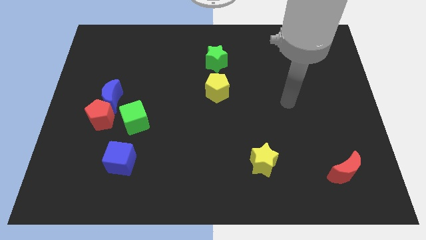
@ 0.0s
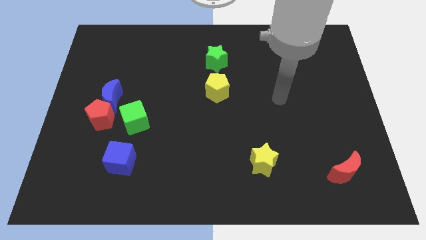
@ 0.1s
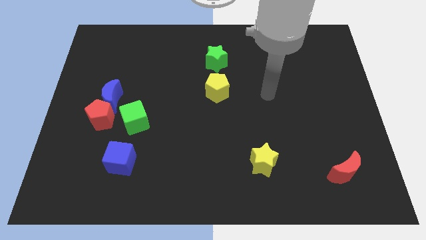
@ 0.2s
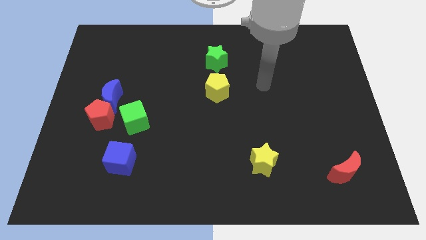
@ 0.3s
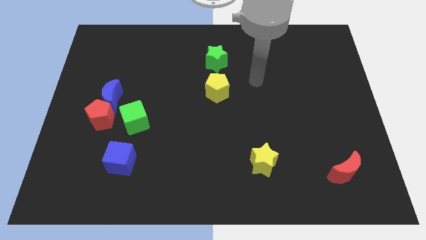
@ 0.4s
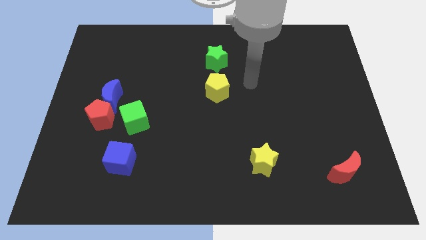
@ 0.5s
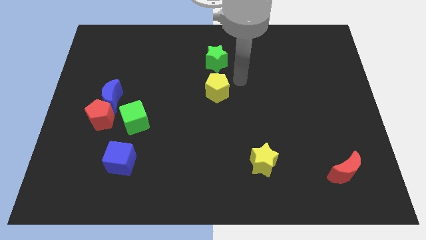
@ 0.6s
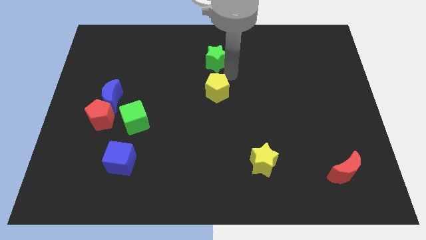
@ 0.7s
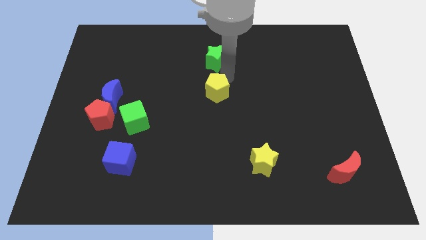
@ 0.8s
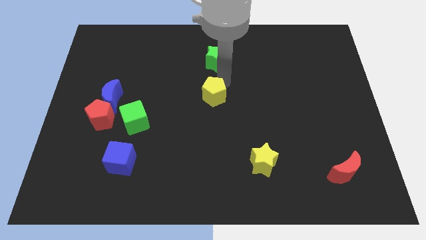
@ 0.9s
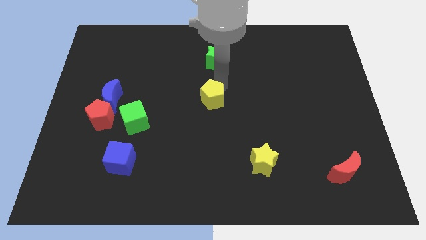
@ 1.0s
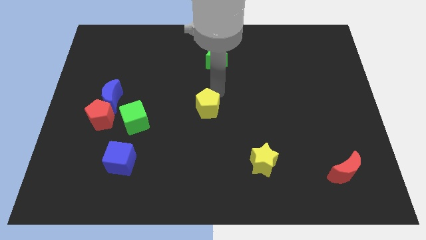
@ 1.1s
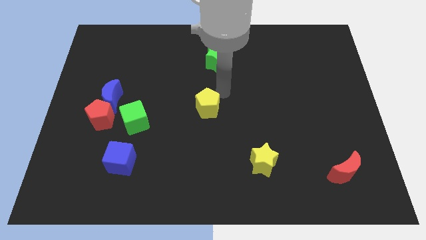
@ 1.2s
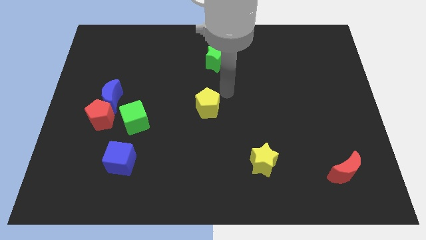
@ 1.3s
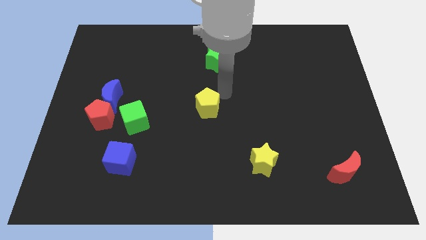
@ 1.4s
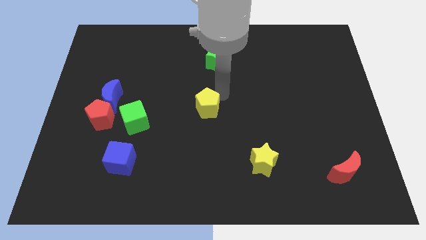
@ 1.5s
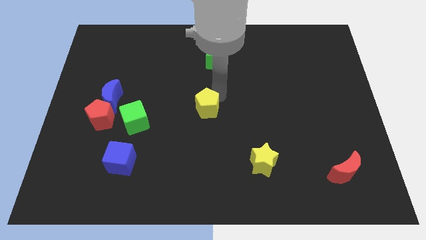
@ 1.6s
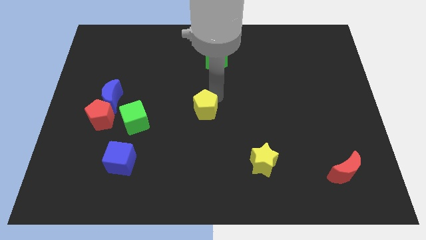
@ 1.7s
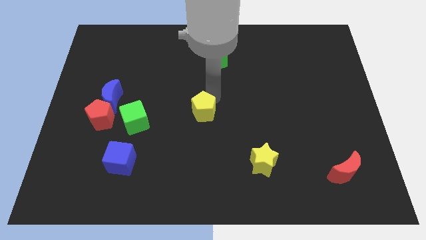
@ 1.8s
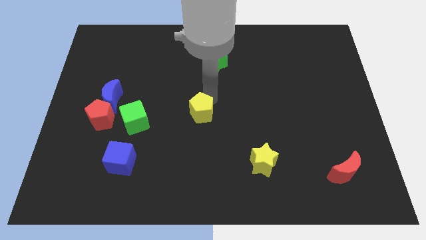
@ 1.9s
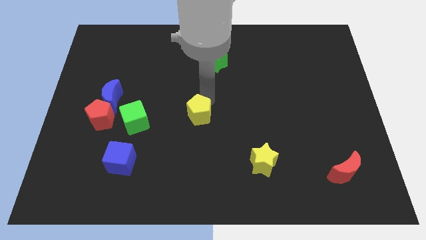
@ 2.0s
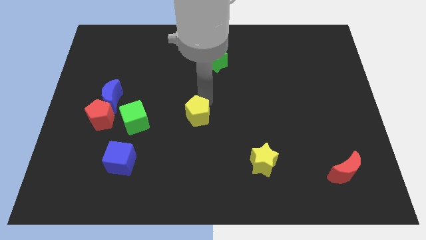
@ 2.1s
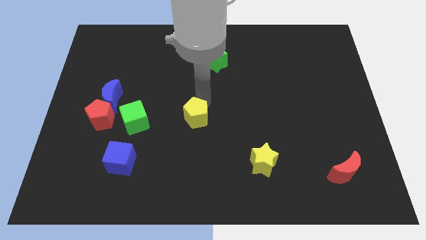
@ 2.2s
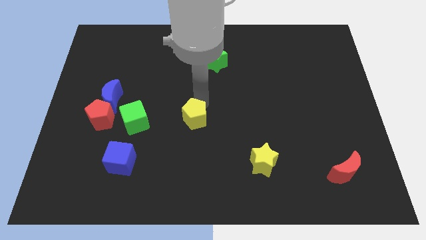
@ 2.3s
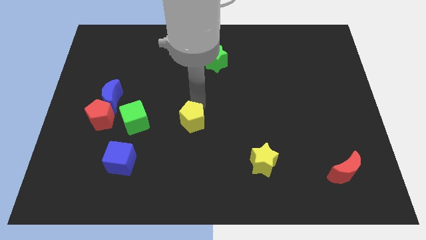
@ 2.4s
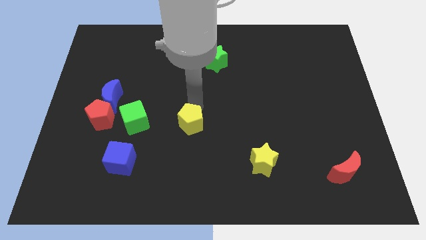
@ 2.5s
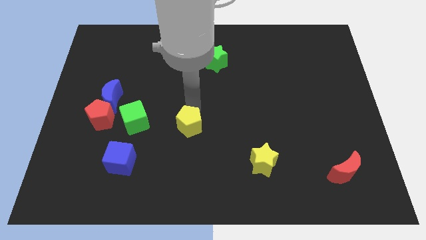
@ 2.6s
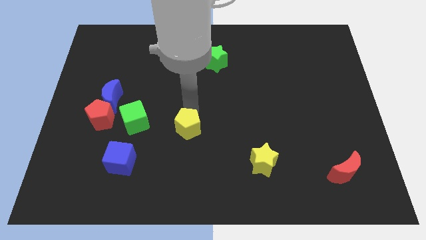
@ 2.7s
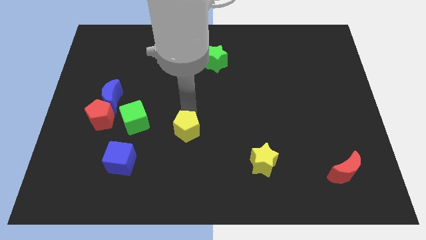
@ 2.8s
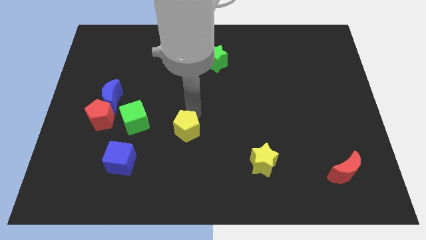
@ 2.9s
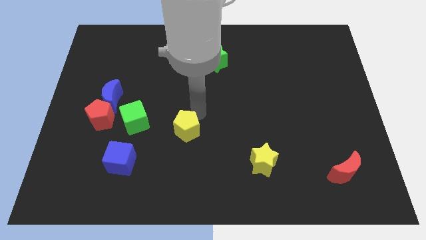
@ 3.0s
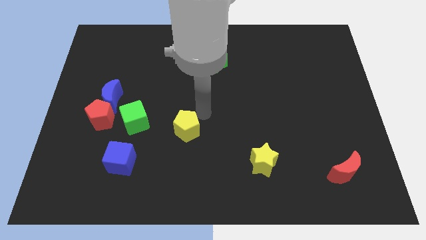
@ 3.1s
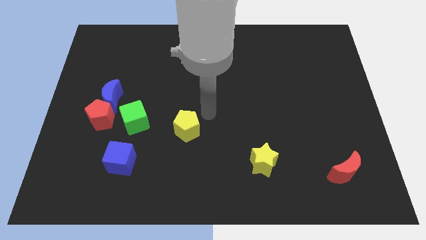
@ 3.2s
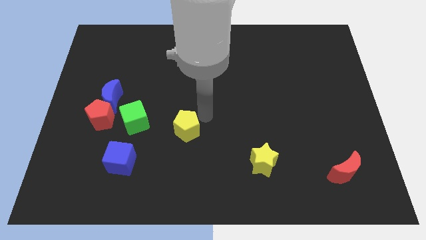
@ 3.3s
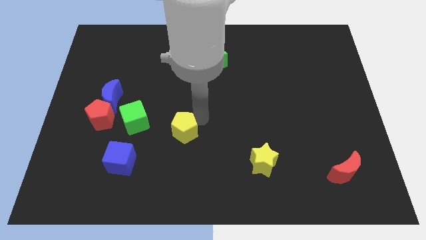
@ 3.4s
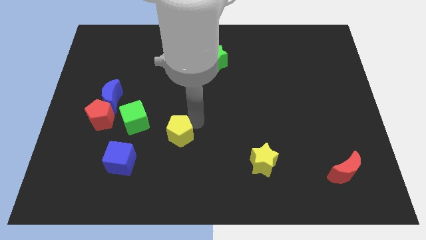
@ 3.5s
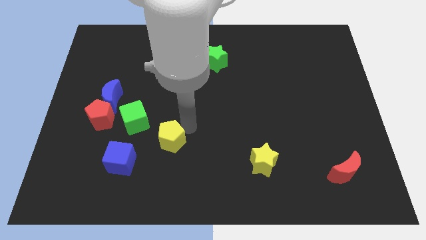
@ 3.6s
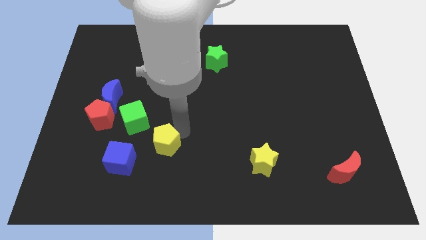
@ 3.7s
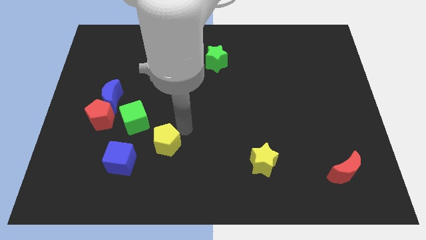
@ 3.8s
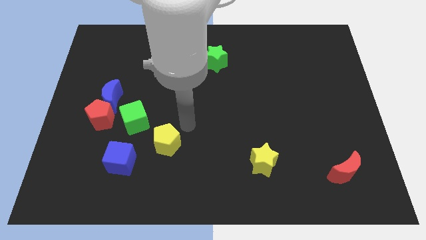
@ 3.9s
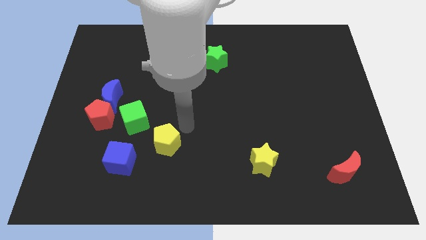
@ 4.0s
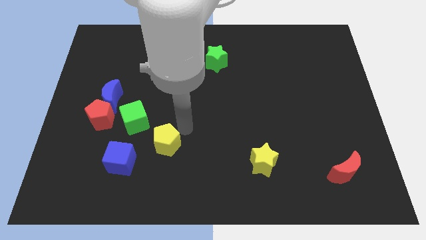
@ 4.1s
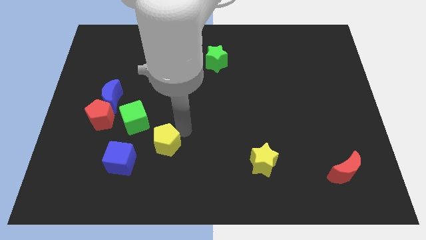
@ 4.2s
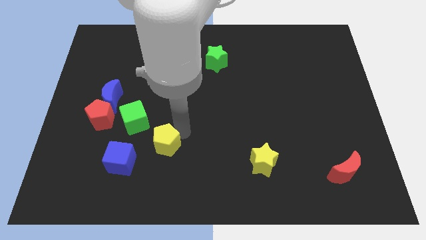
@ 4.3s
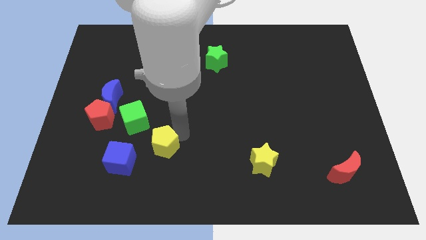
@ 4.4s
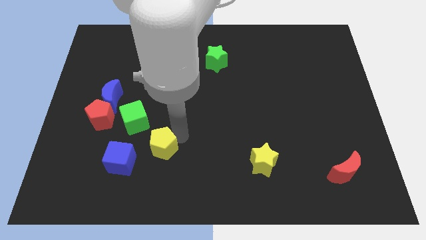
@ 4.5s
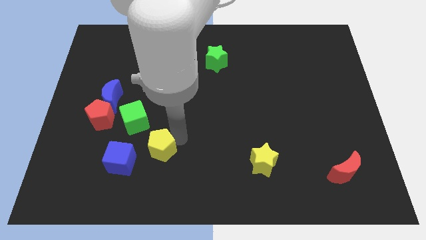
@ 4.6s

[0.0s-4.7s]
push the yellow pentagon downwards and to the left

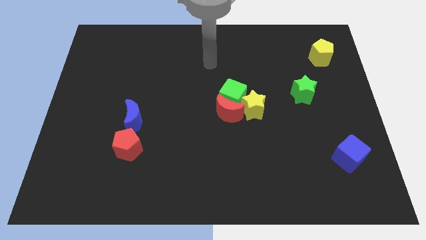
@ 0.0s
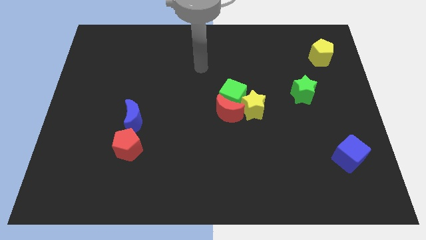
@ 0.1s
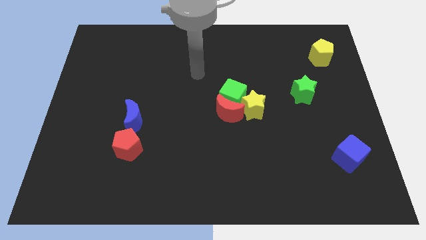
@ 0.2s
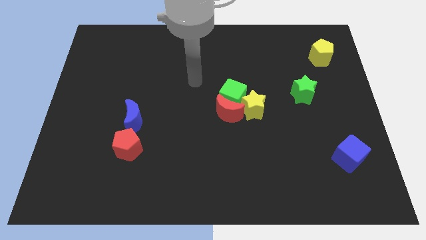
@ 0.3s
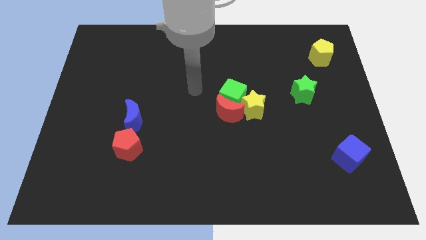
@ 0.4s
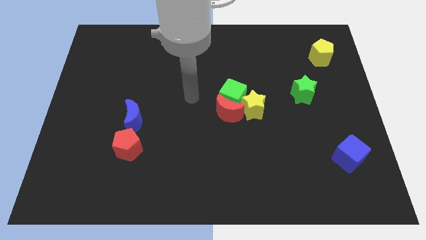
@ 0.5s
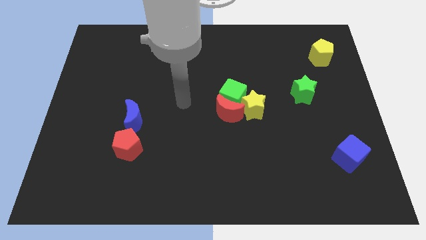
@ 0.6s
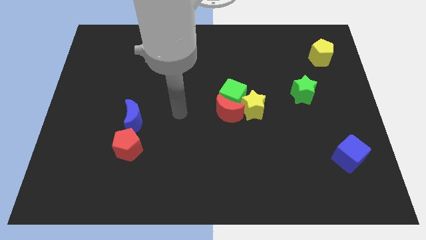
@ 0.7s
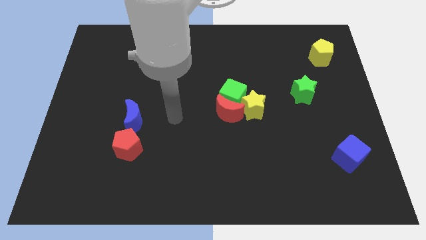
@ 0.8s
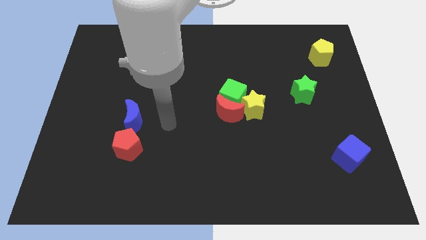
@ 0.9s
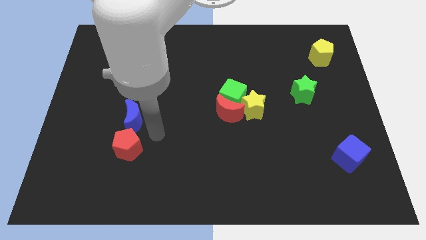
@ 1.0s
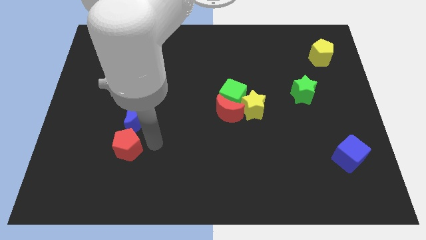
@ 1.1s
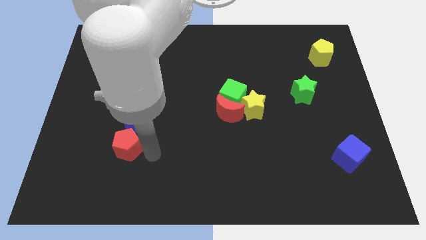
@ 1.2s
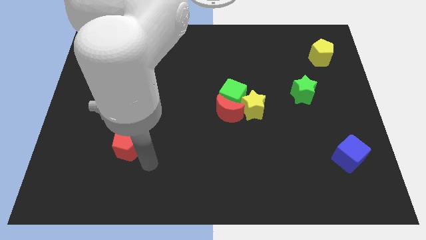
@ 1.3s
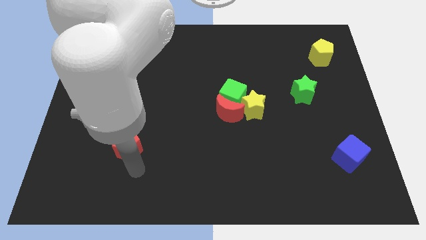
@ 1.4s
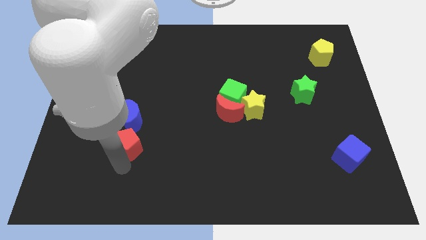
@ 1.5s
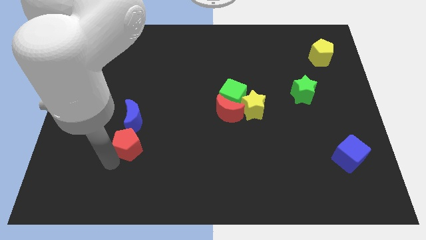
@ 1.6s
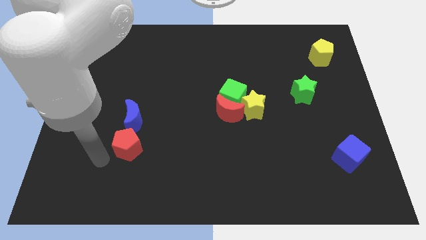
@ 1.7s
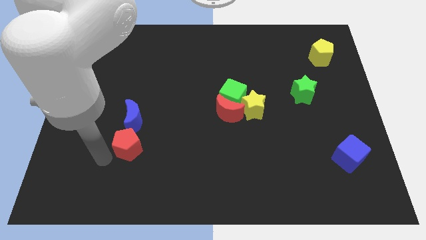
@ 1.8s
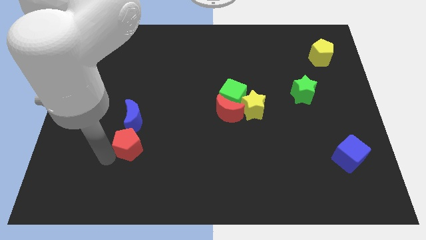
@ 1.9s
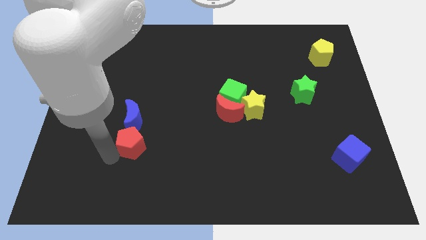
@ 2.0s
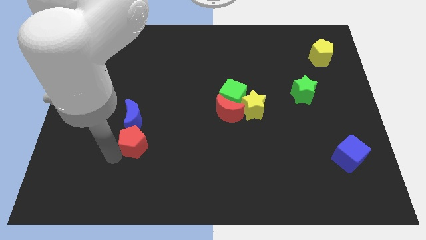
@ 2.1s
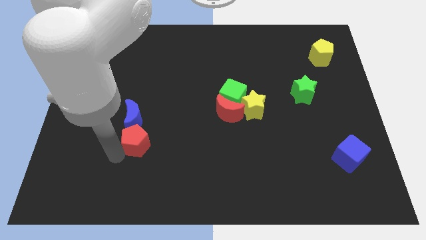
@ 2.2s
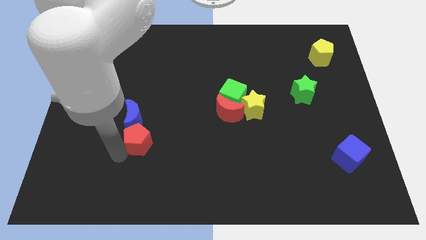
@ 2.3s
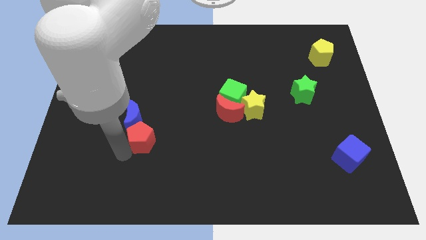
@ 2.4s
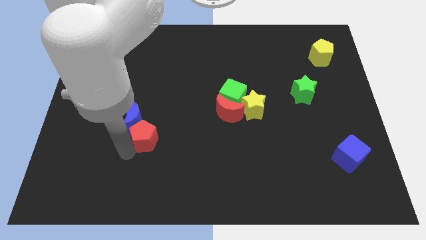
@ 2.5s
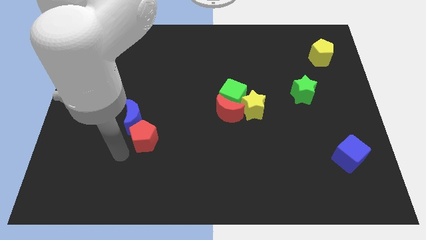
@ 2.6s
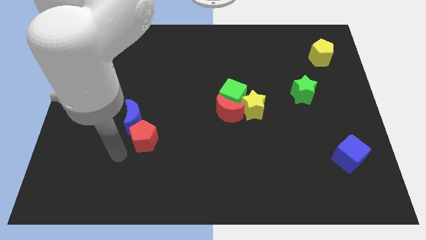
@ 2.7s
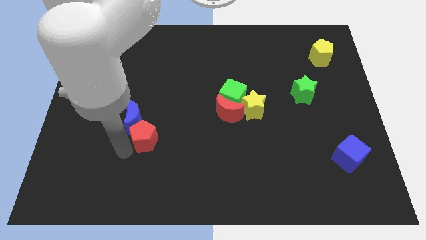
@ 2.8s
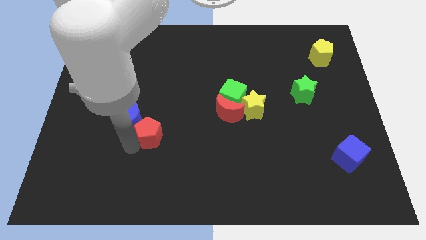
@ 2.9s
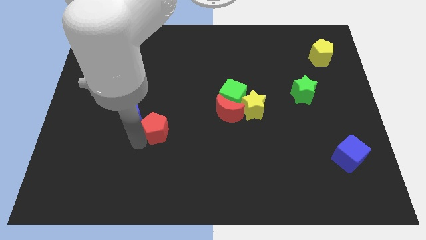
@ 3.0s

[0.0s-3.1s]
move the red pentagon upwards and then right a little

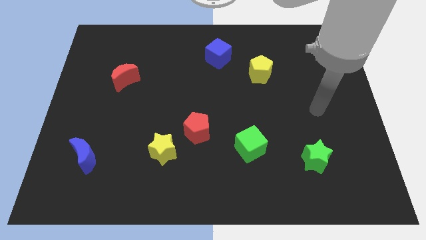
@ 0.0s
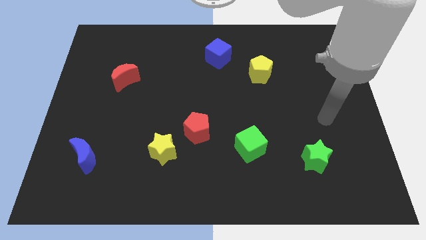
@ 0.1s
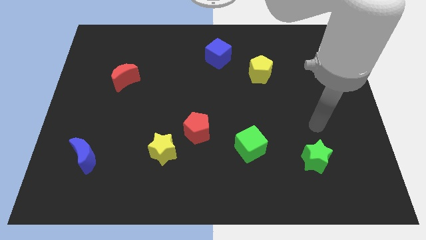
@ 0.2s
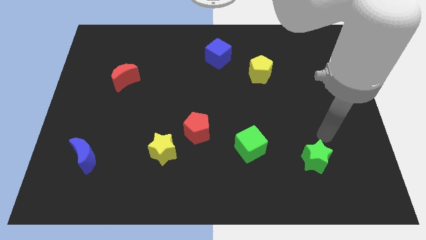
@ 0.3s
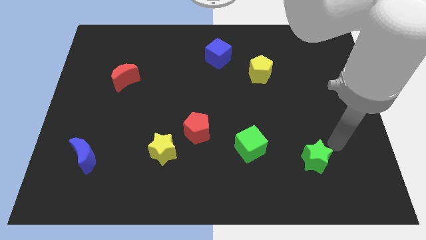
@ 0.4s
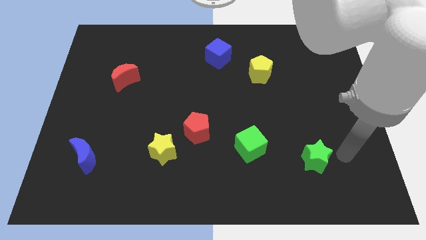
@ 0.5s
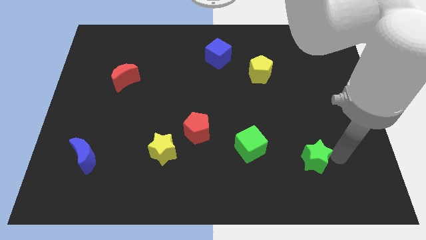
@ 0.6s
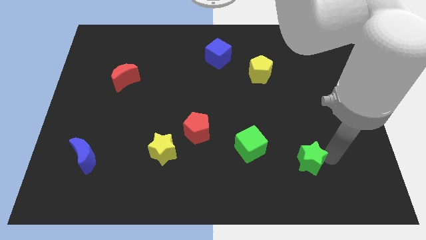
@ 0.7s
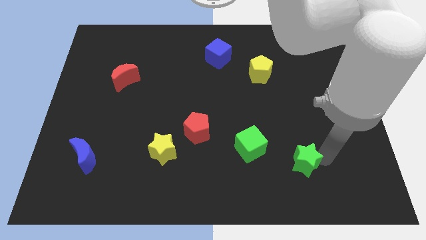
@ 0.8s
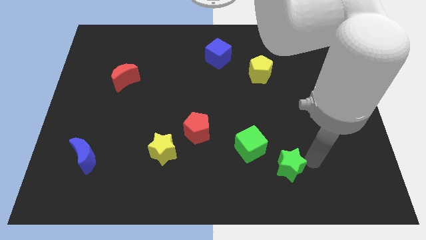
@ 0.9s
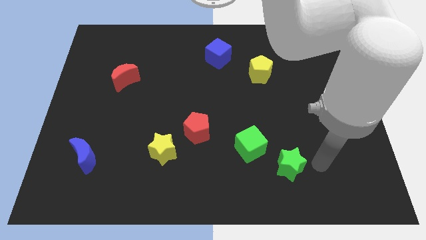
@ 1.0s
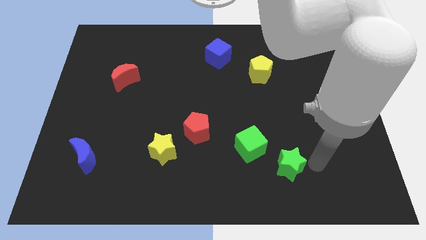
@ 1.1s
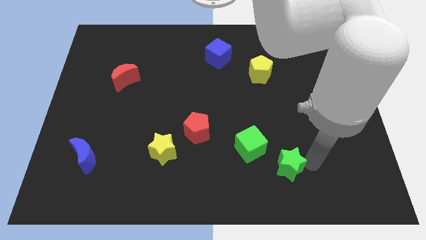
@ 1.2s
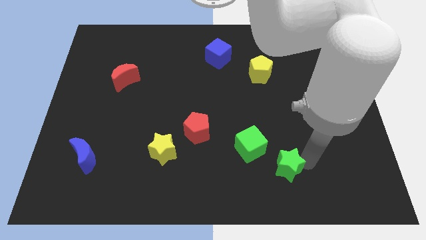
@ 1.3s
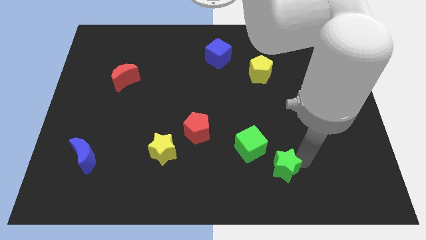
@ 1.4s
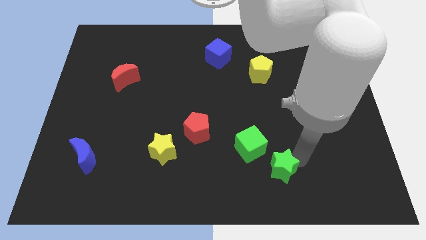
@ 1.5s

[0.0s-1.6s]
slide the green star left a bit
